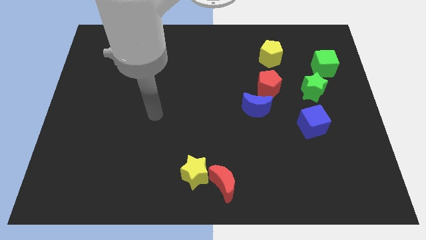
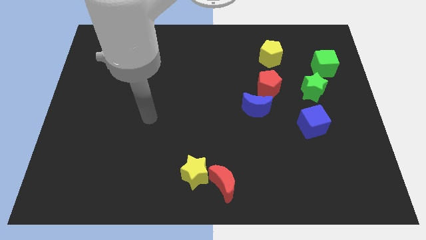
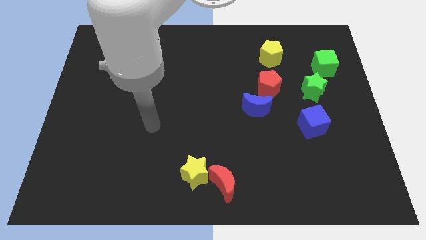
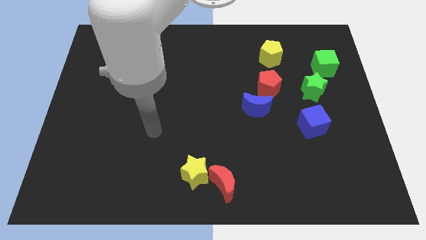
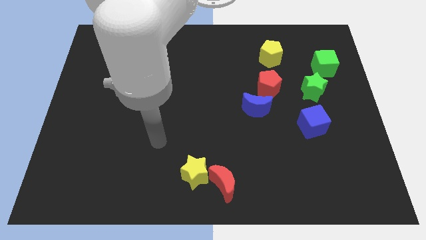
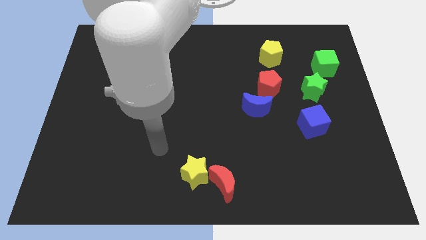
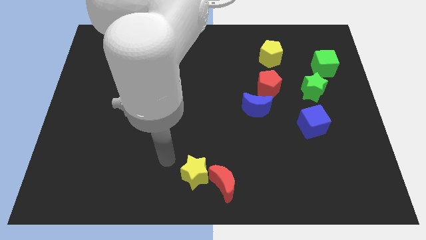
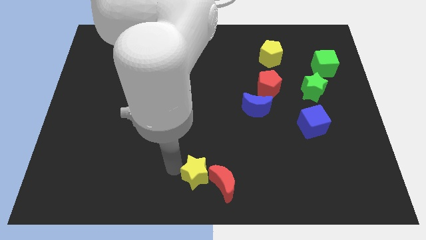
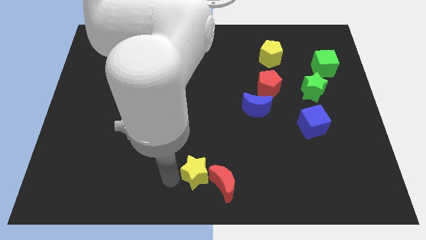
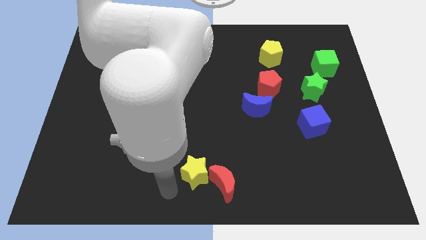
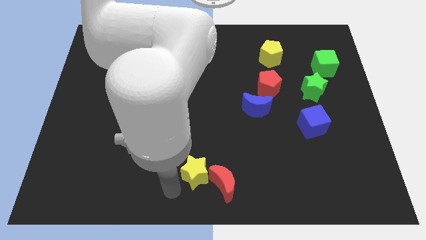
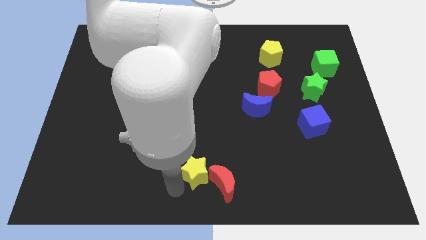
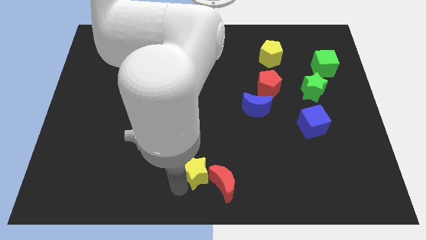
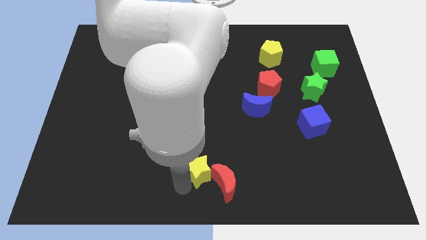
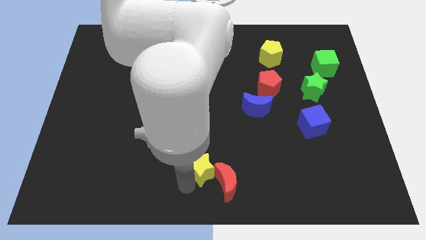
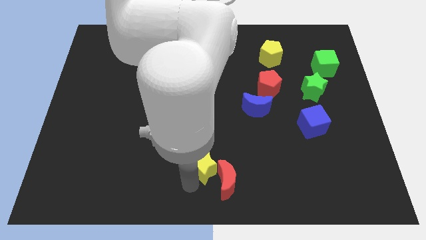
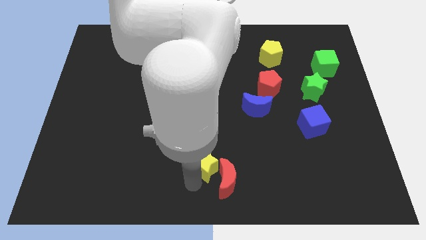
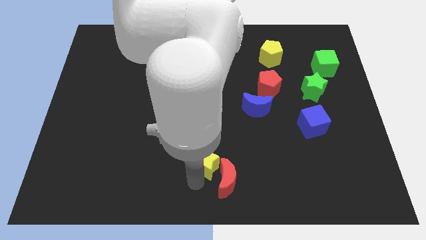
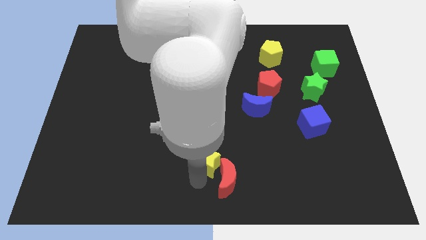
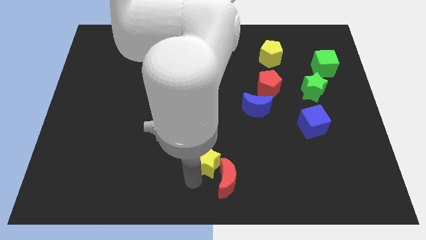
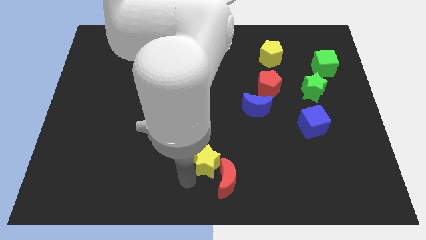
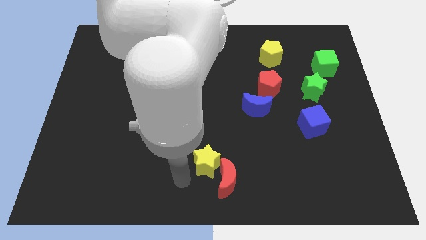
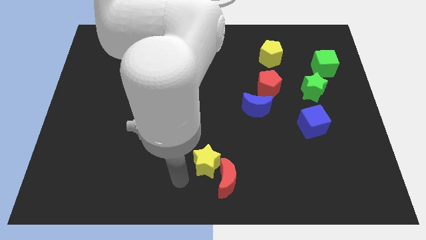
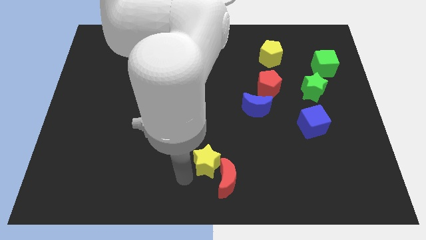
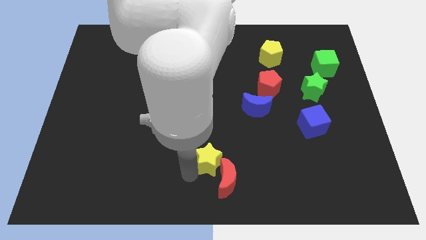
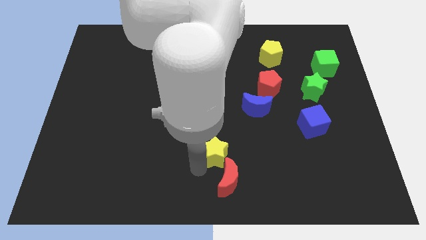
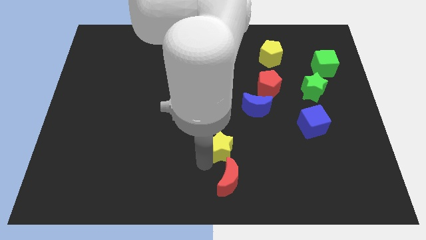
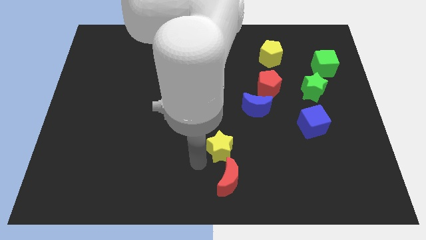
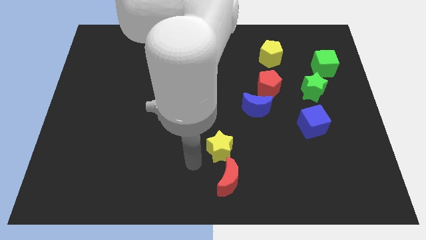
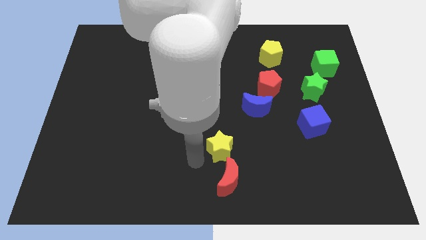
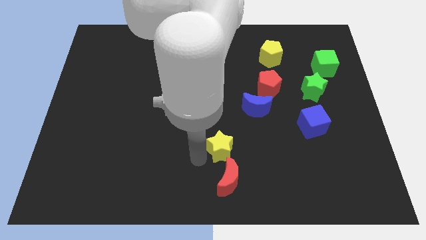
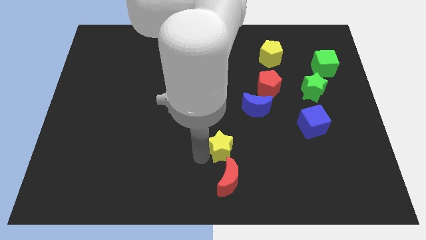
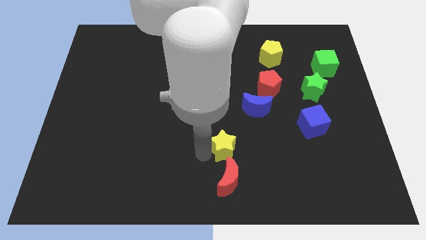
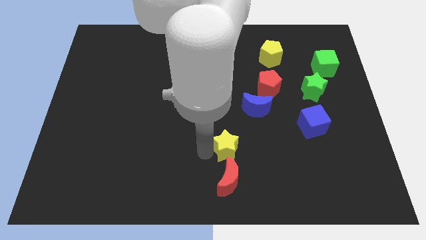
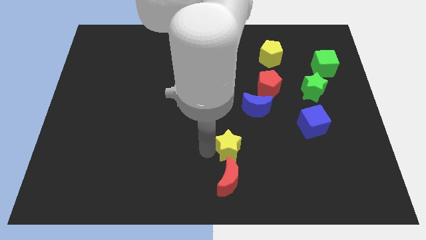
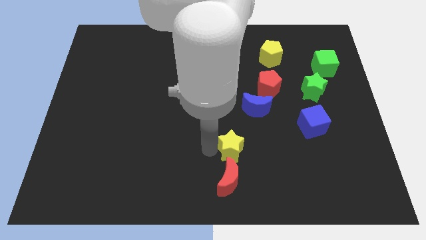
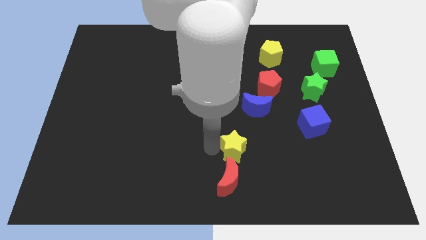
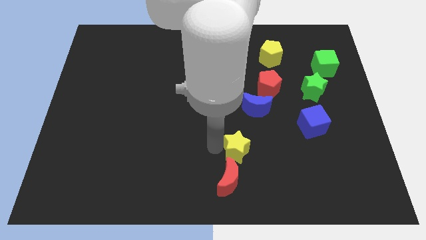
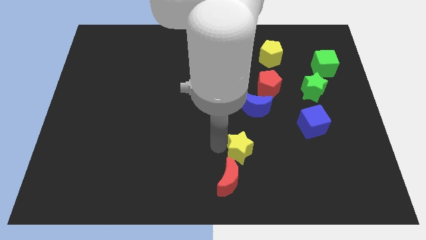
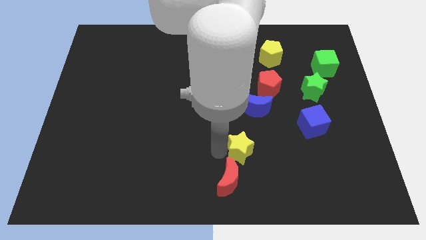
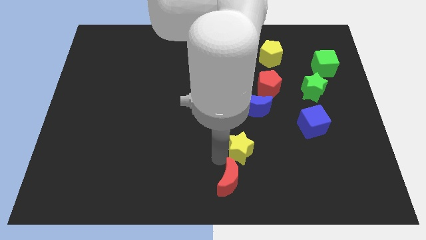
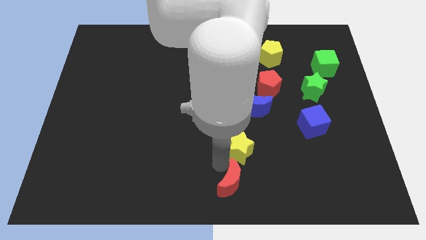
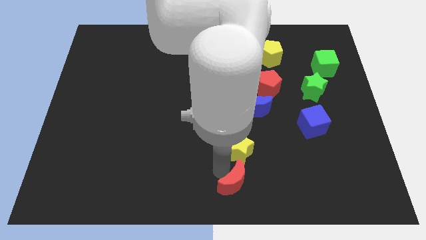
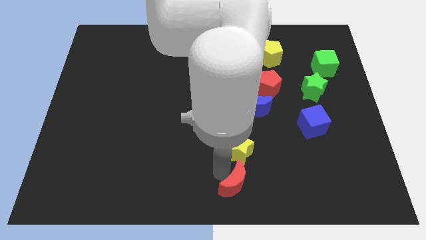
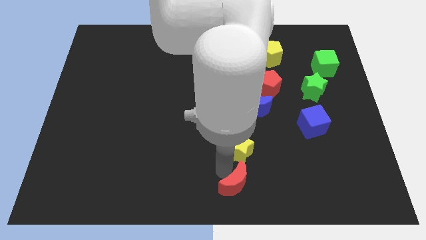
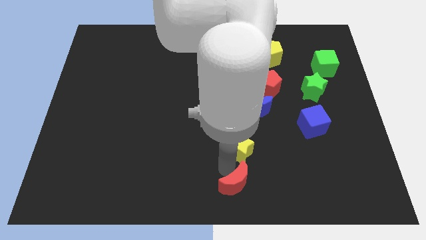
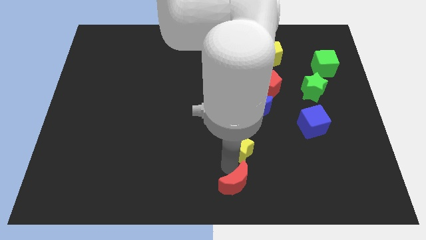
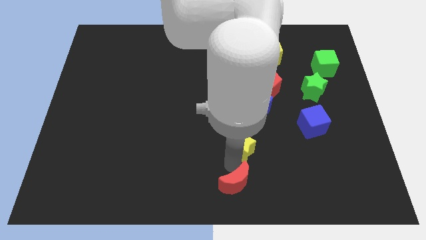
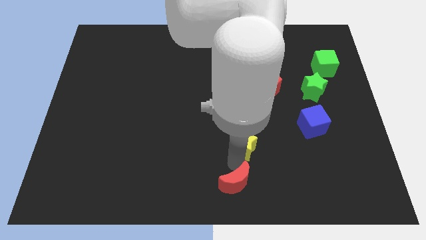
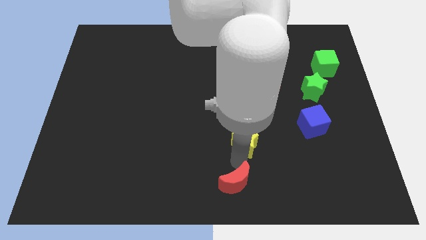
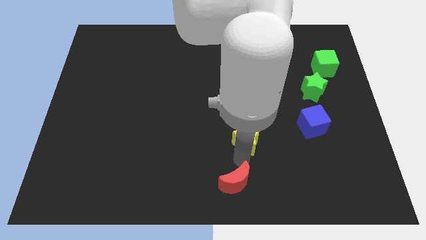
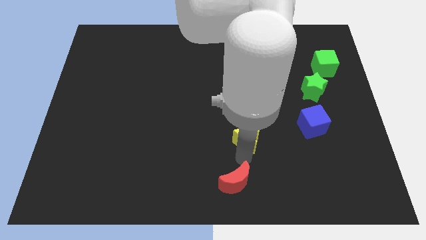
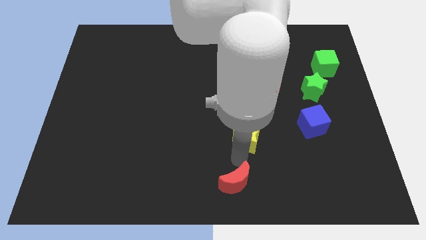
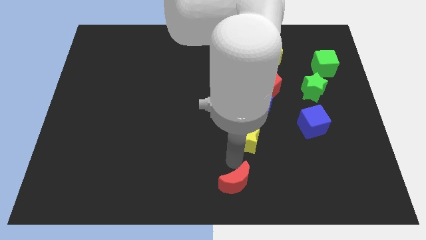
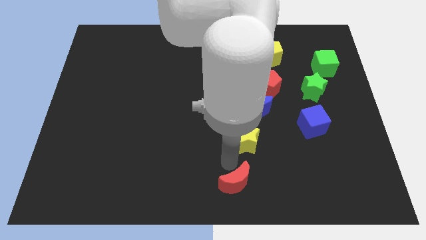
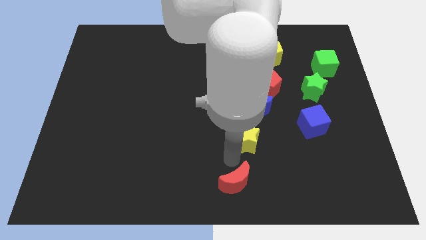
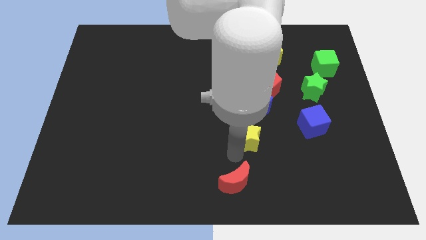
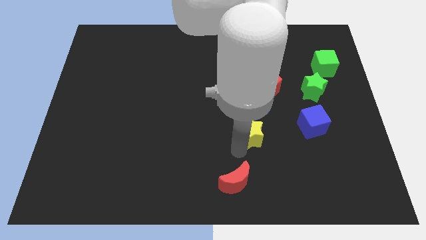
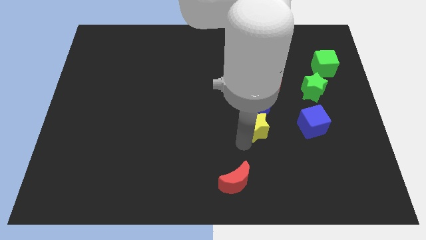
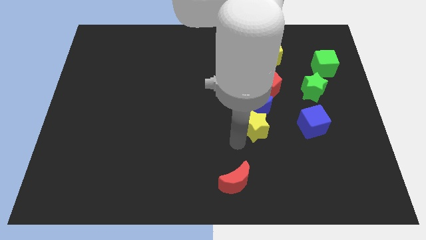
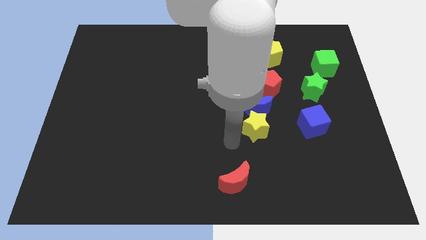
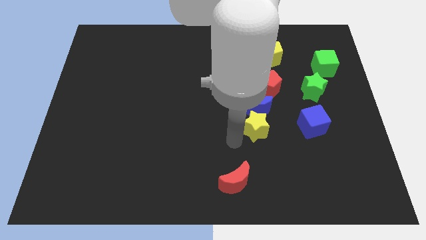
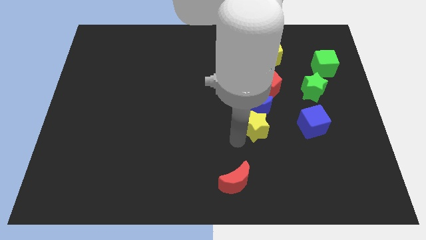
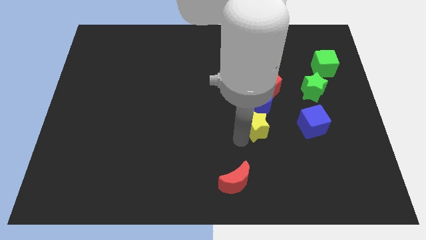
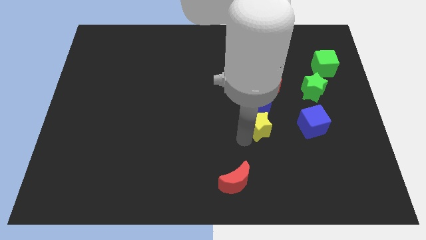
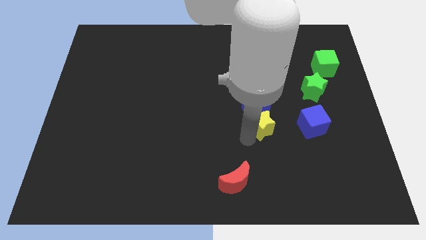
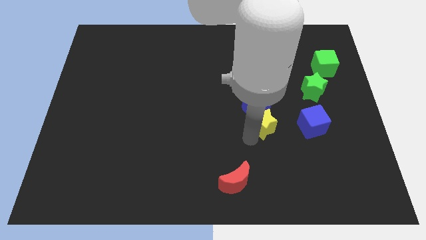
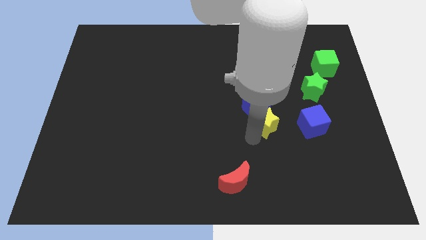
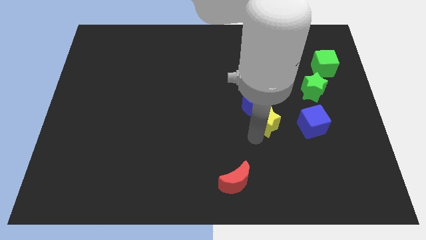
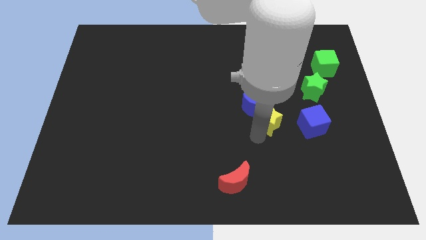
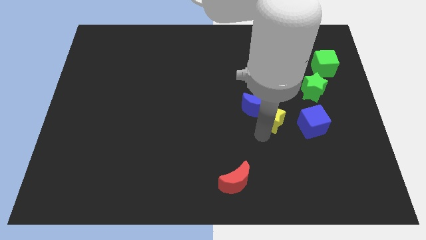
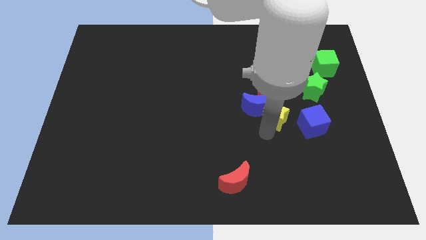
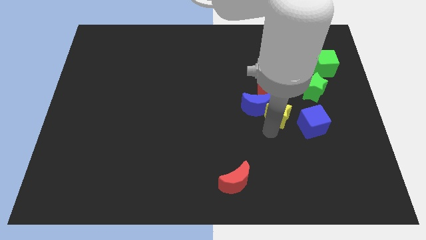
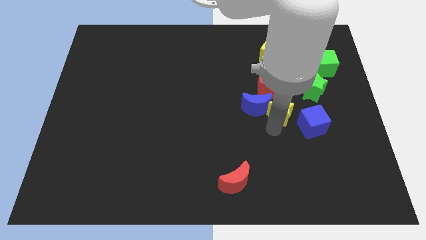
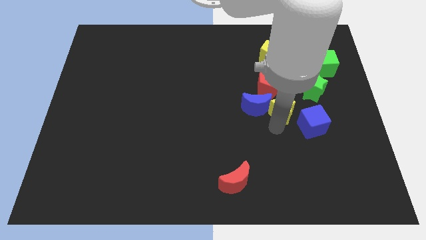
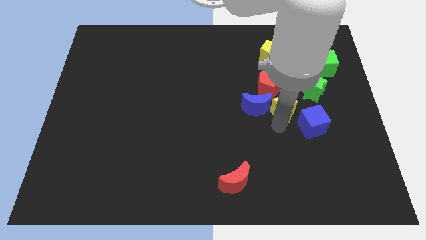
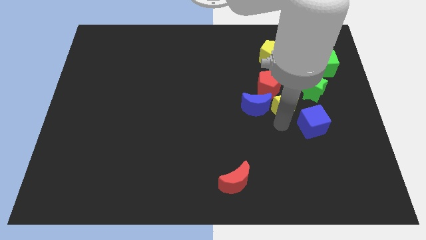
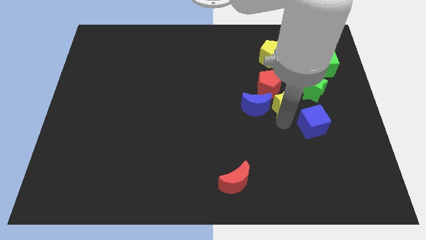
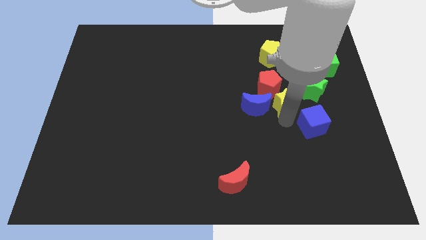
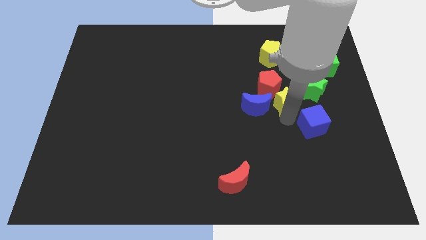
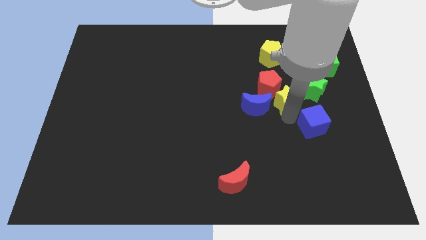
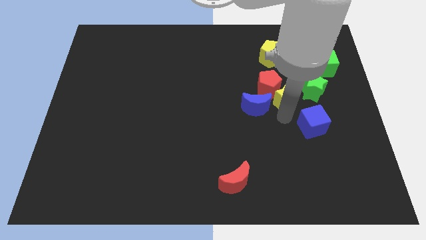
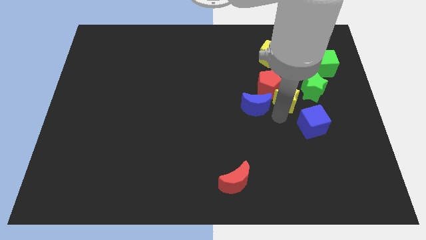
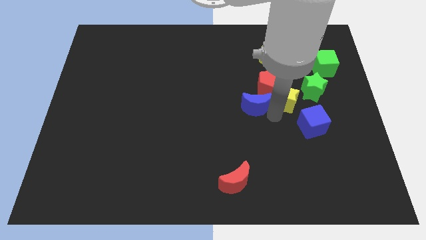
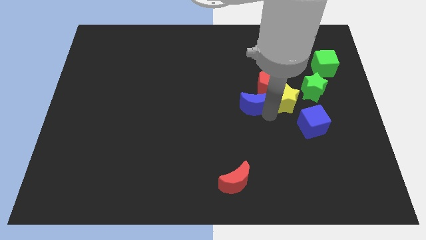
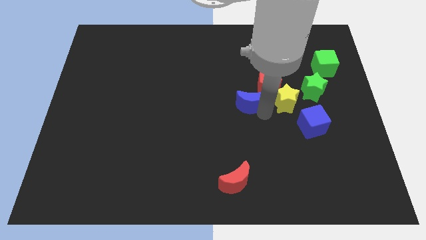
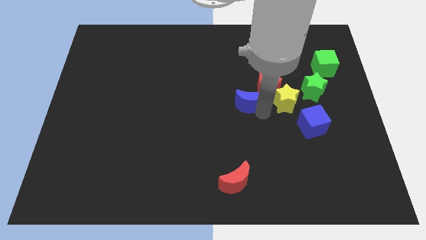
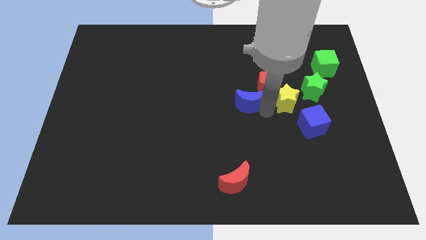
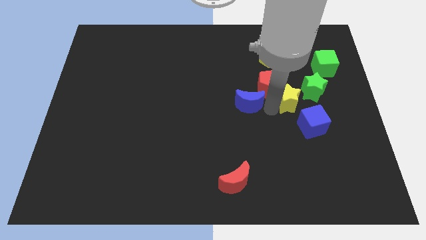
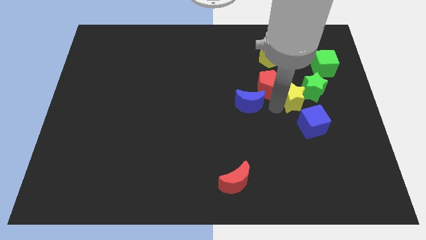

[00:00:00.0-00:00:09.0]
push the yellow star towards the green star
